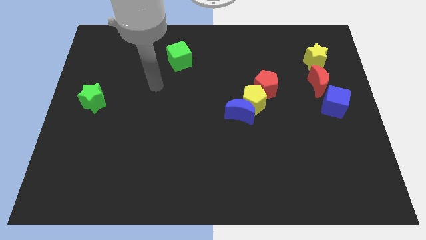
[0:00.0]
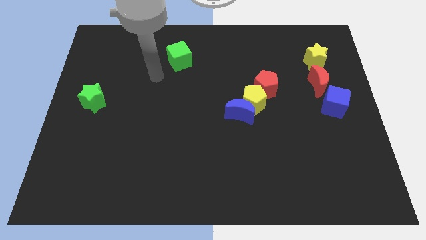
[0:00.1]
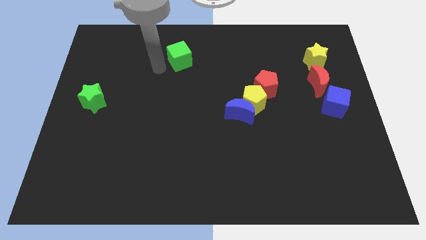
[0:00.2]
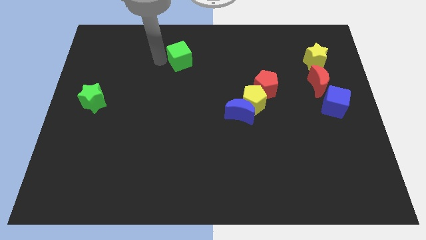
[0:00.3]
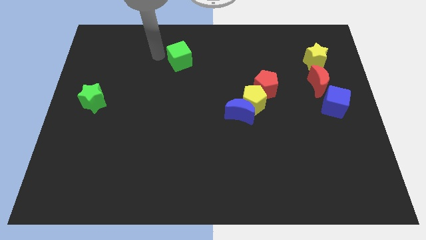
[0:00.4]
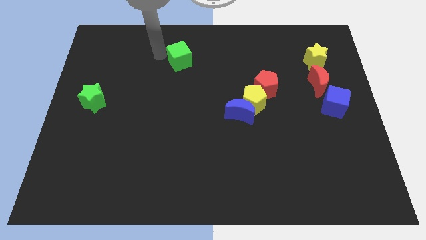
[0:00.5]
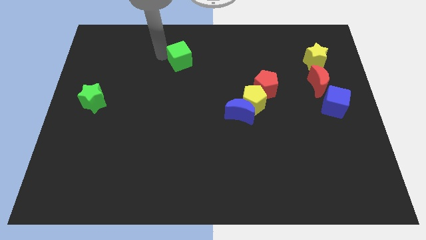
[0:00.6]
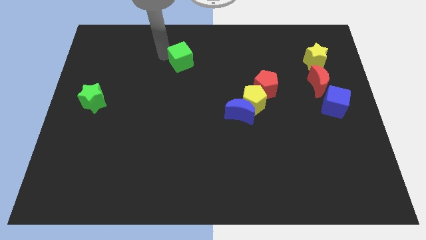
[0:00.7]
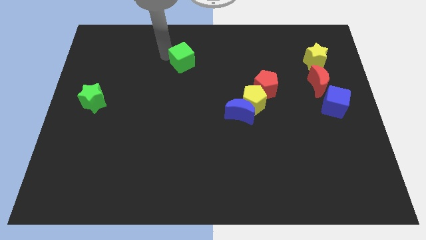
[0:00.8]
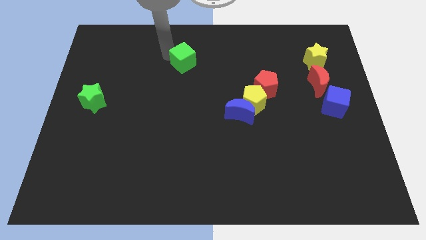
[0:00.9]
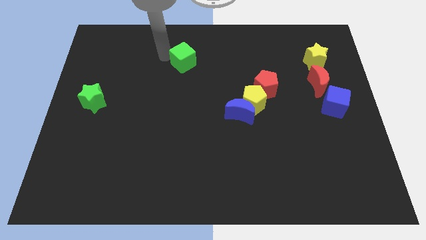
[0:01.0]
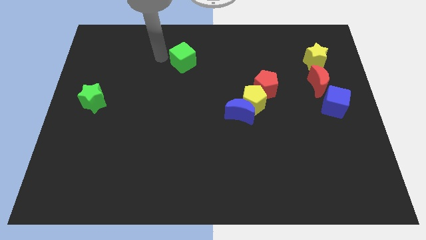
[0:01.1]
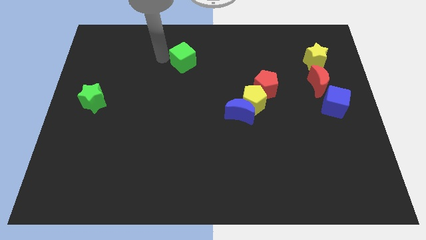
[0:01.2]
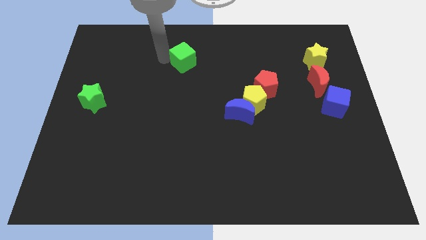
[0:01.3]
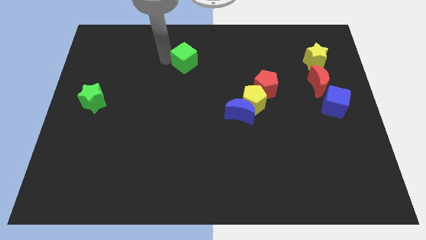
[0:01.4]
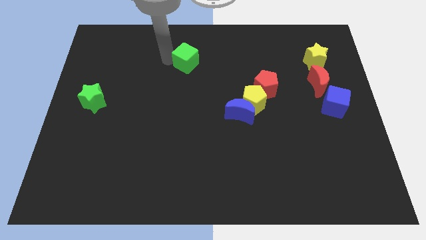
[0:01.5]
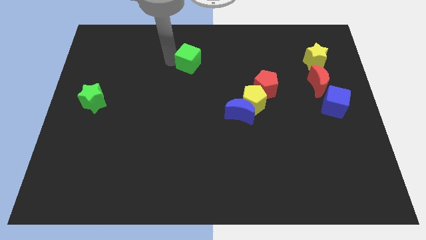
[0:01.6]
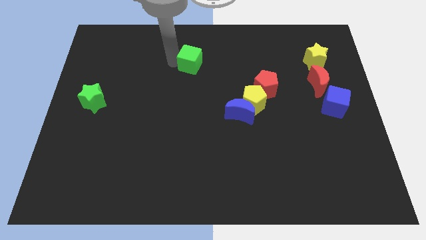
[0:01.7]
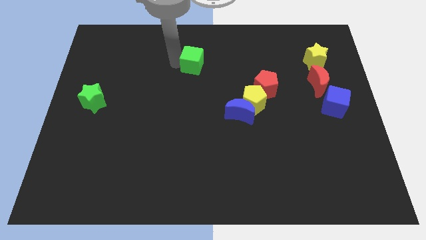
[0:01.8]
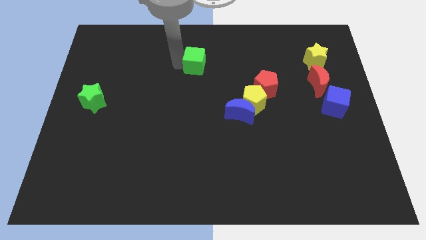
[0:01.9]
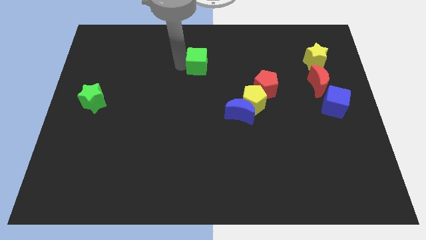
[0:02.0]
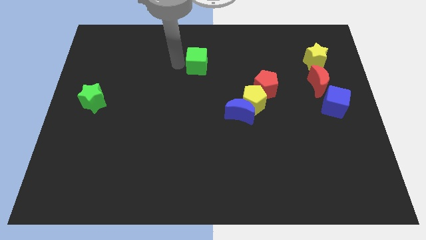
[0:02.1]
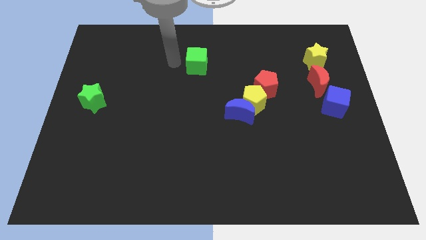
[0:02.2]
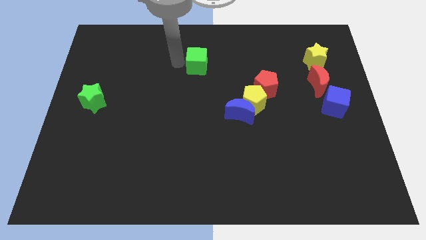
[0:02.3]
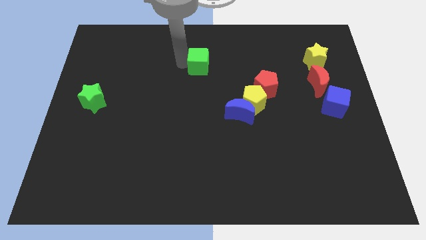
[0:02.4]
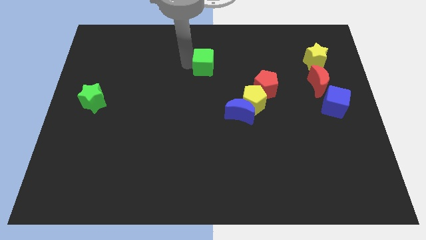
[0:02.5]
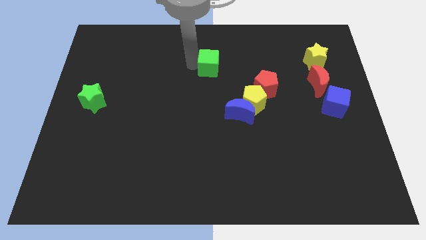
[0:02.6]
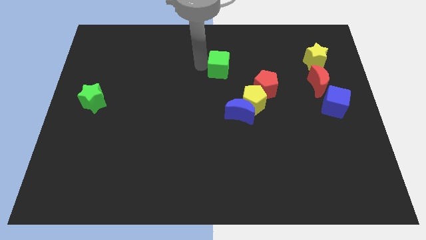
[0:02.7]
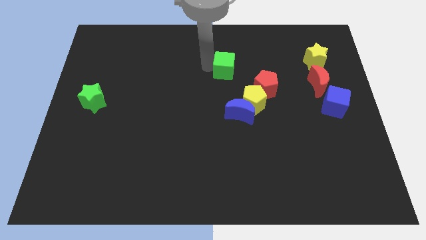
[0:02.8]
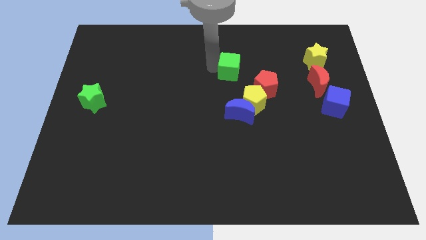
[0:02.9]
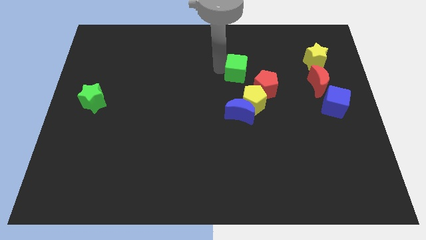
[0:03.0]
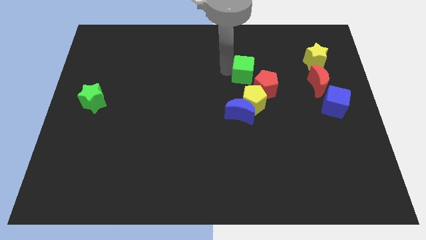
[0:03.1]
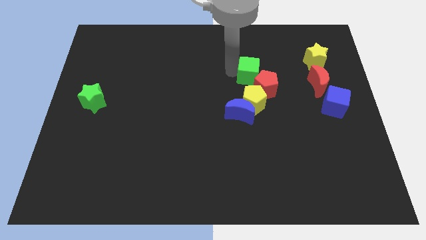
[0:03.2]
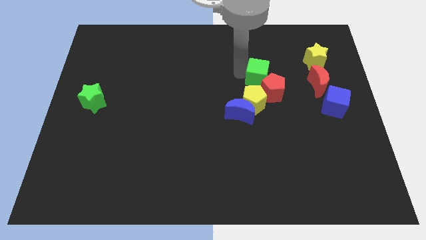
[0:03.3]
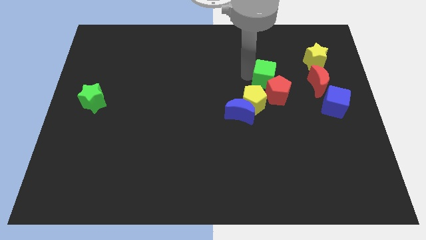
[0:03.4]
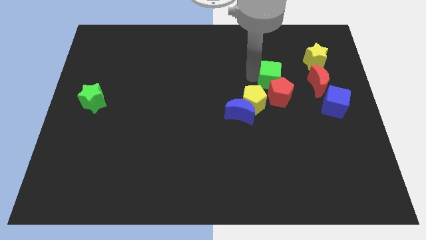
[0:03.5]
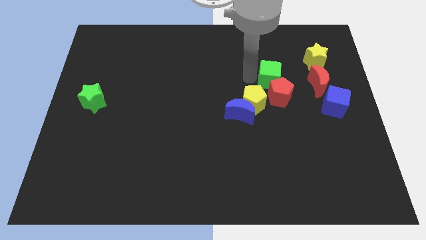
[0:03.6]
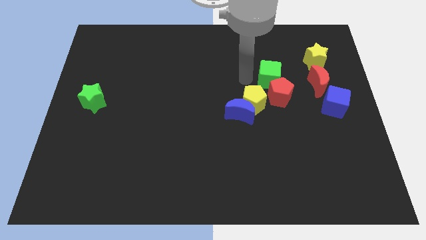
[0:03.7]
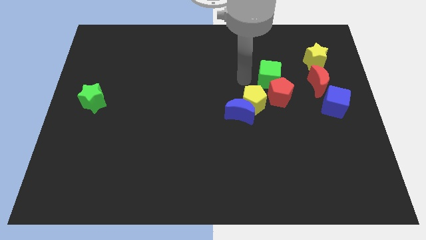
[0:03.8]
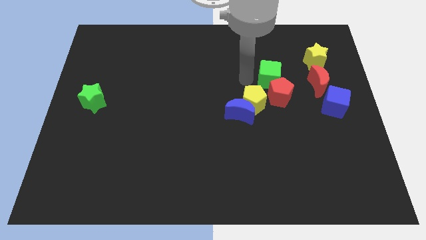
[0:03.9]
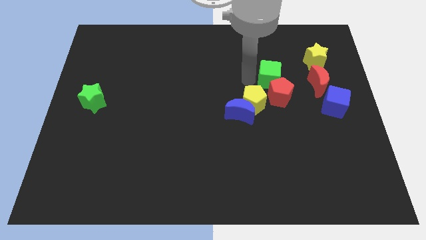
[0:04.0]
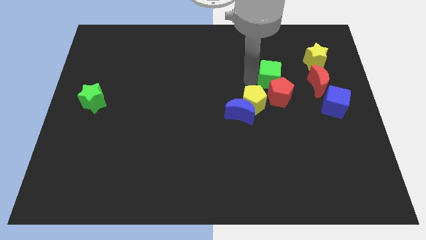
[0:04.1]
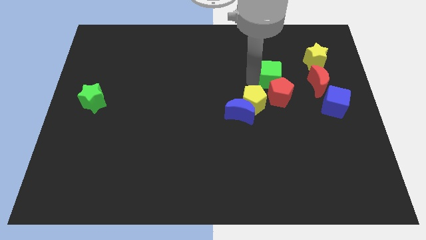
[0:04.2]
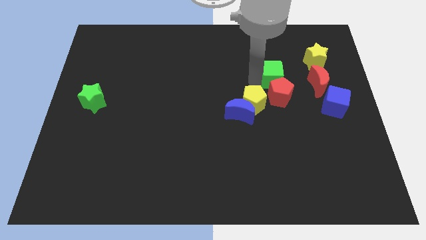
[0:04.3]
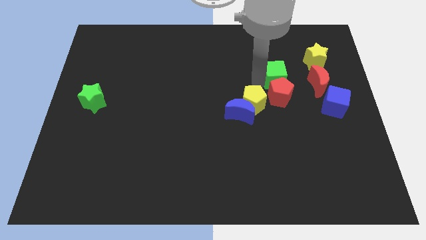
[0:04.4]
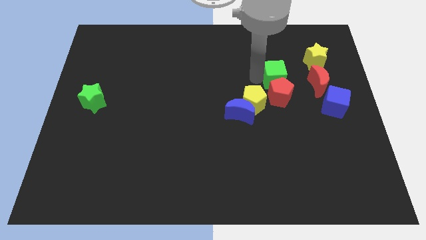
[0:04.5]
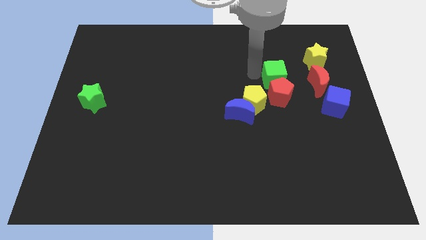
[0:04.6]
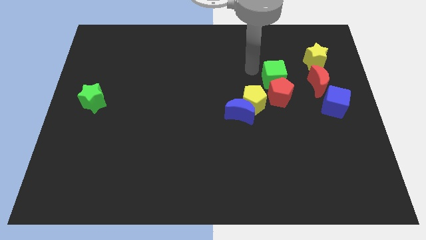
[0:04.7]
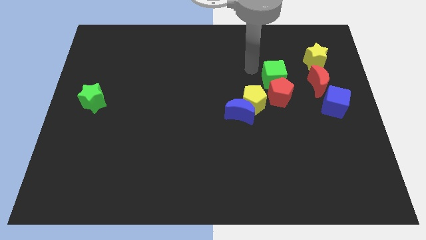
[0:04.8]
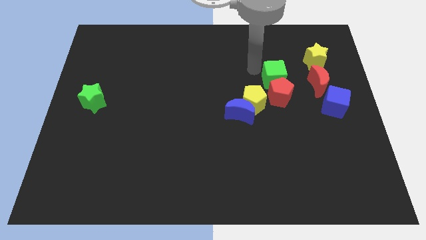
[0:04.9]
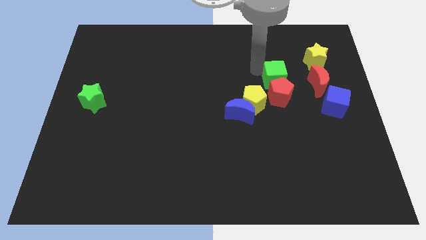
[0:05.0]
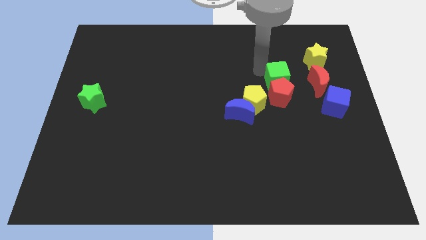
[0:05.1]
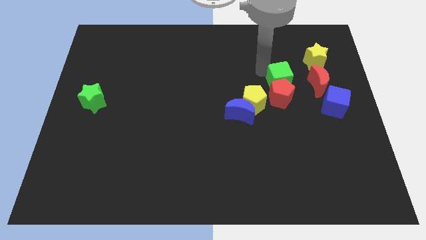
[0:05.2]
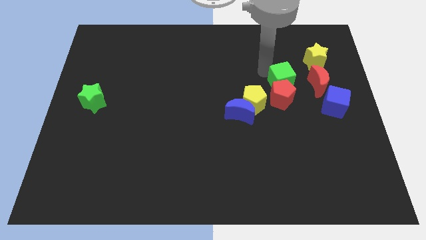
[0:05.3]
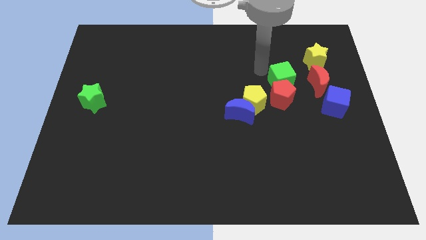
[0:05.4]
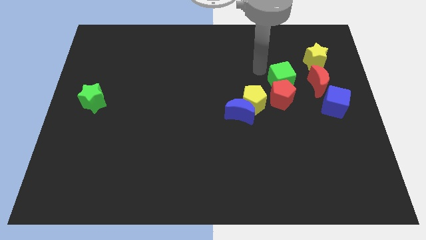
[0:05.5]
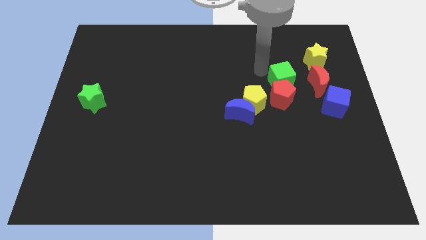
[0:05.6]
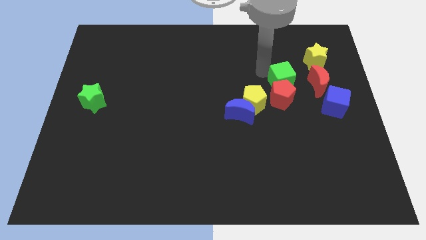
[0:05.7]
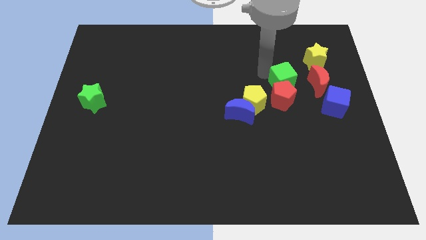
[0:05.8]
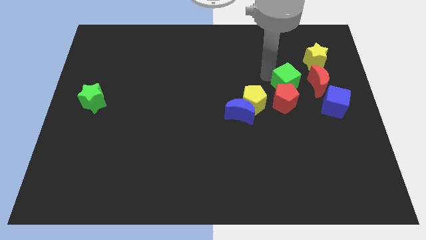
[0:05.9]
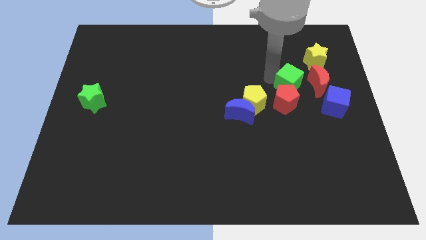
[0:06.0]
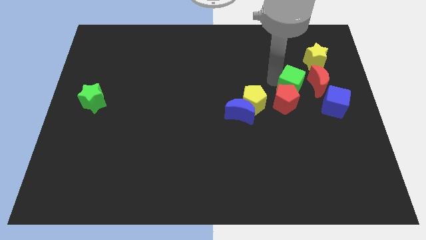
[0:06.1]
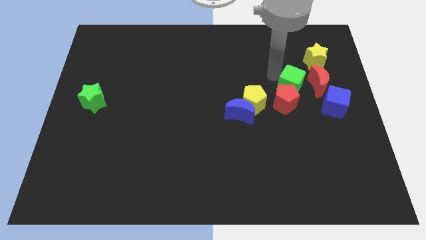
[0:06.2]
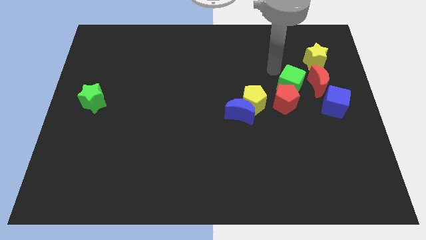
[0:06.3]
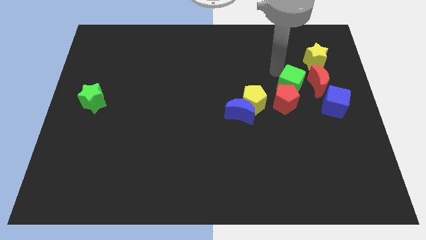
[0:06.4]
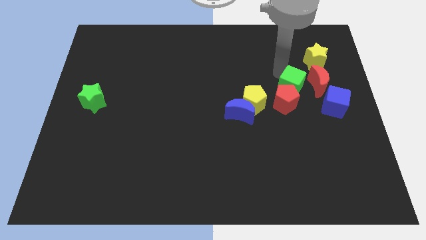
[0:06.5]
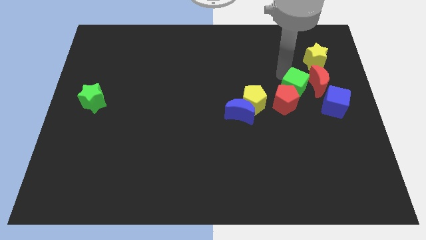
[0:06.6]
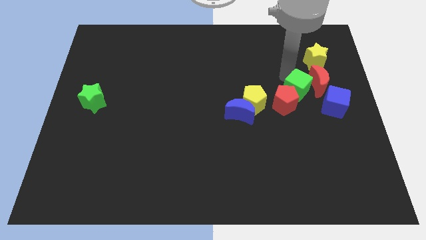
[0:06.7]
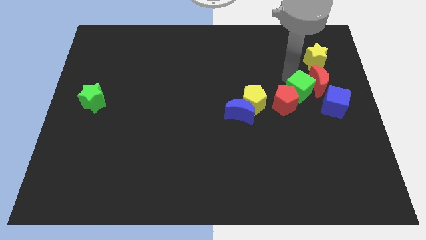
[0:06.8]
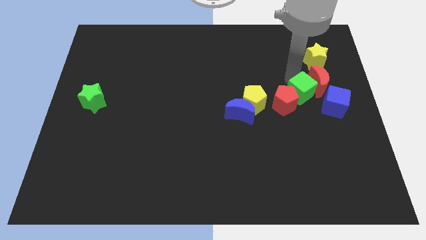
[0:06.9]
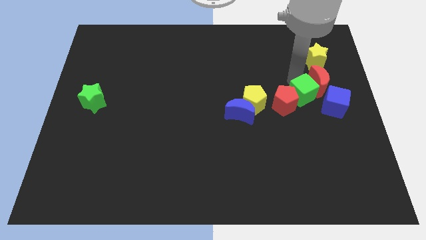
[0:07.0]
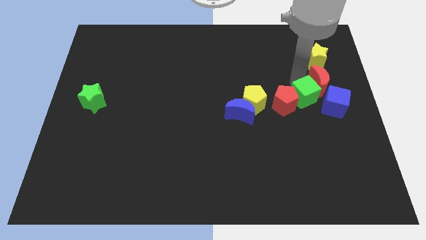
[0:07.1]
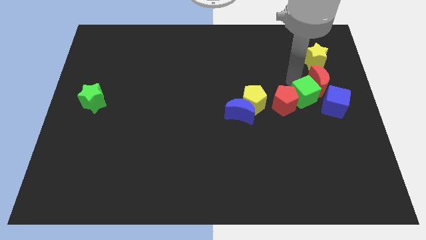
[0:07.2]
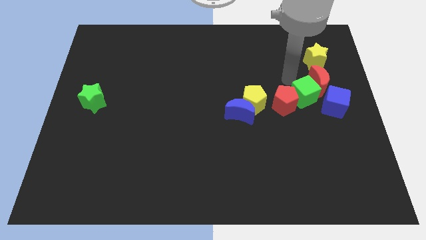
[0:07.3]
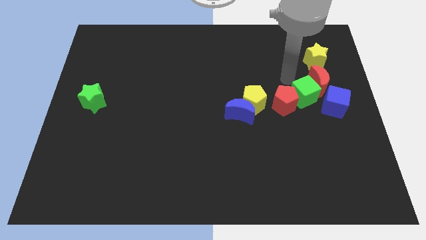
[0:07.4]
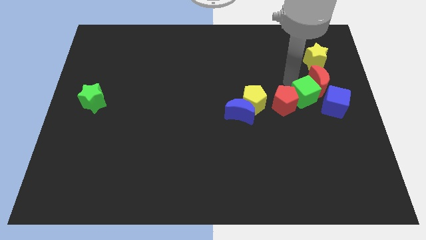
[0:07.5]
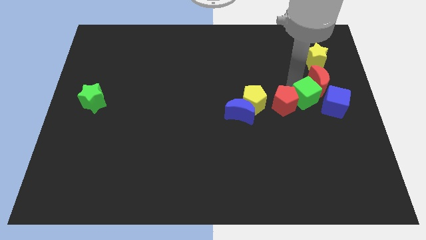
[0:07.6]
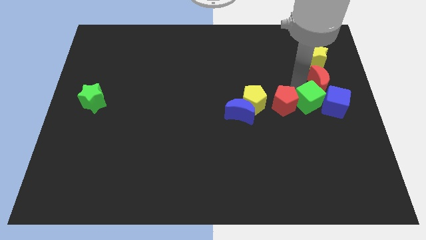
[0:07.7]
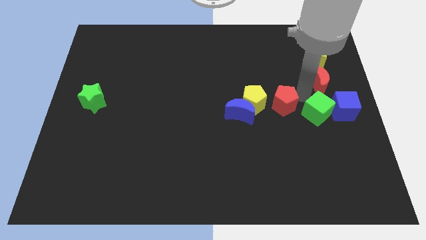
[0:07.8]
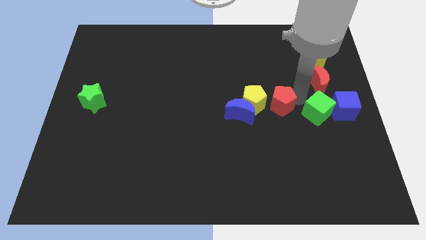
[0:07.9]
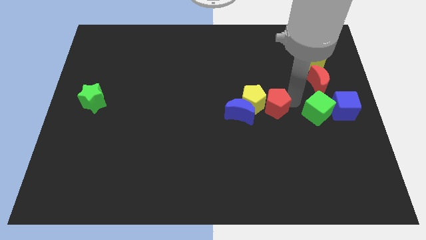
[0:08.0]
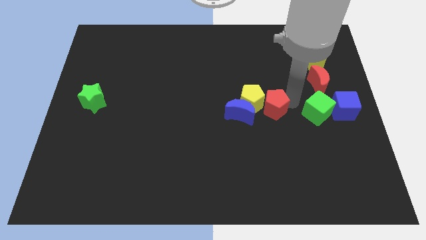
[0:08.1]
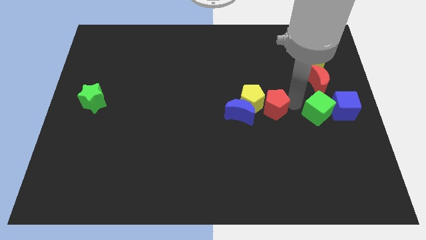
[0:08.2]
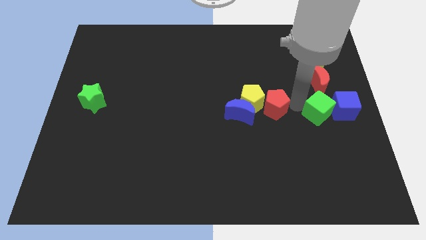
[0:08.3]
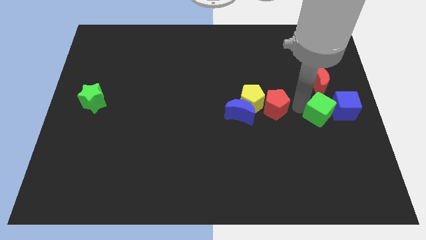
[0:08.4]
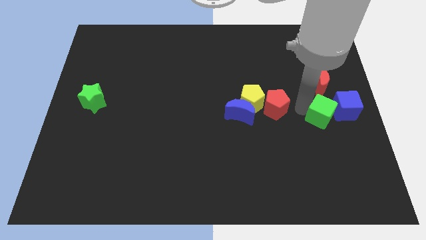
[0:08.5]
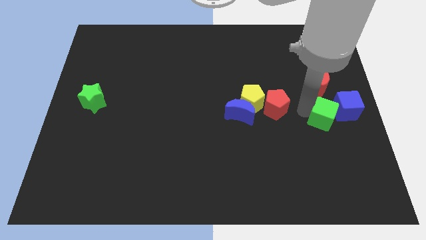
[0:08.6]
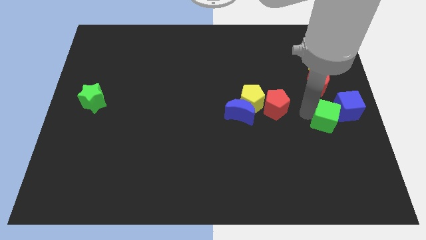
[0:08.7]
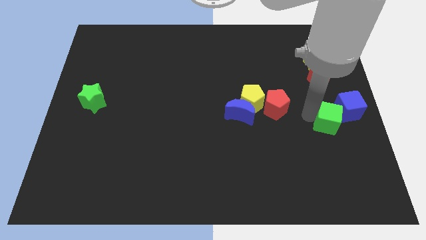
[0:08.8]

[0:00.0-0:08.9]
push the green cube to the center right
